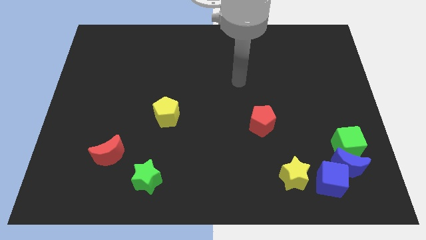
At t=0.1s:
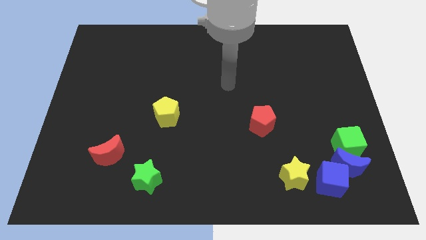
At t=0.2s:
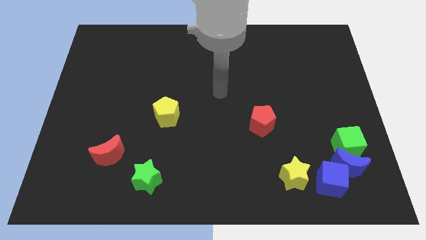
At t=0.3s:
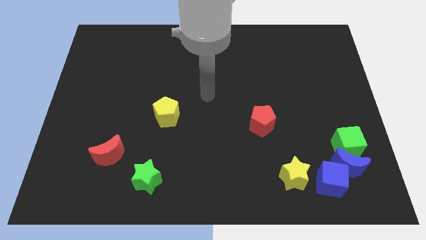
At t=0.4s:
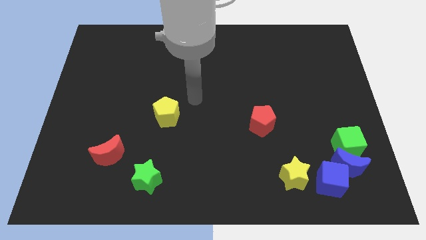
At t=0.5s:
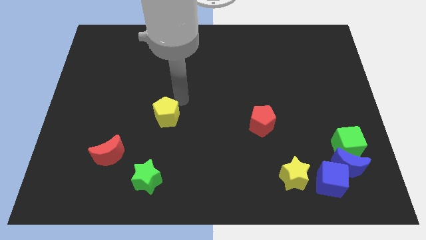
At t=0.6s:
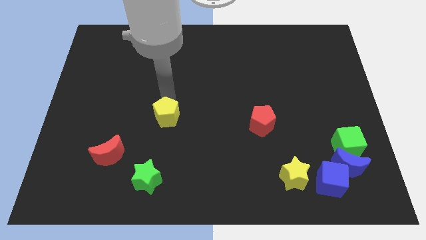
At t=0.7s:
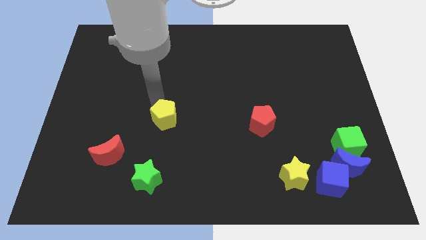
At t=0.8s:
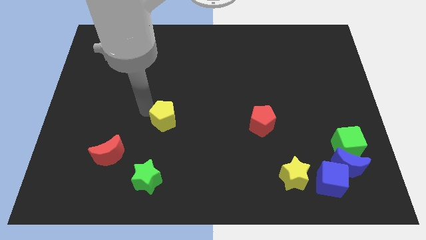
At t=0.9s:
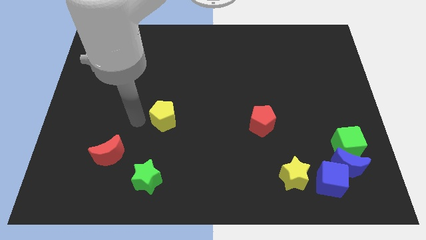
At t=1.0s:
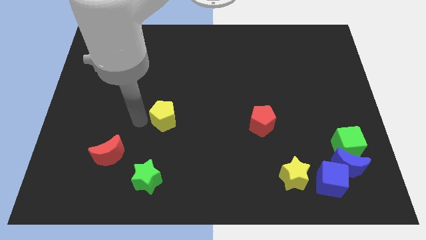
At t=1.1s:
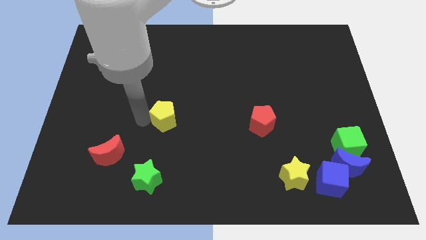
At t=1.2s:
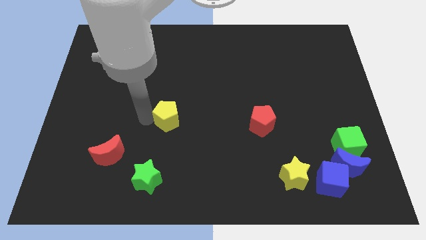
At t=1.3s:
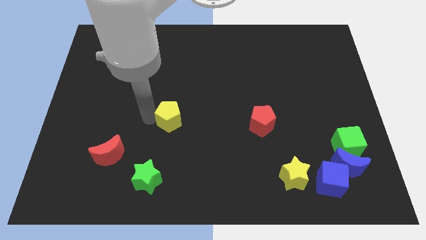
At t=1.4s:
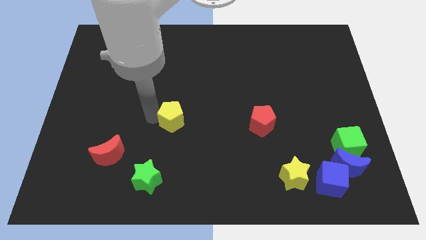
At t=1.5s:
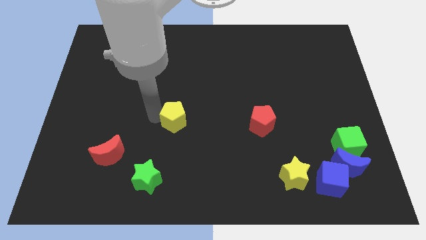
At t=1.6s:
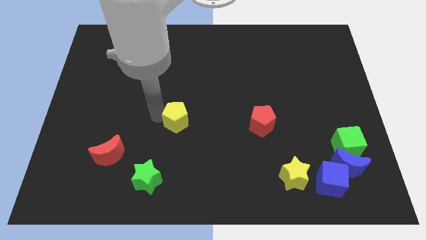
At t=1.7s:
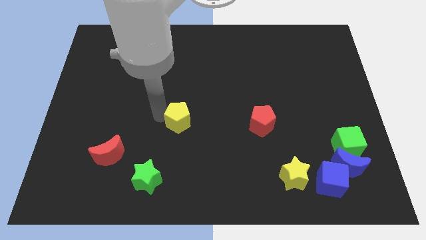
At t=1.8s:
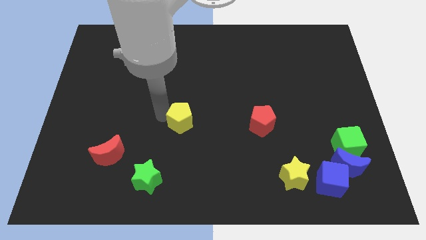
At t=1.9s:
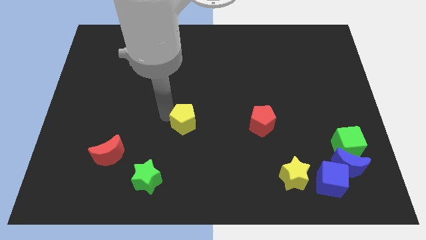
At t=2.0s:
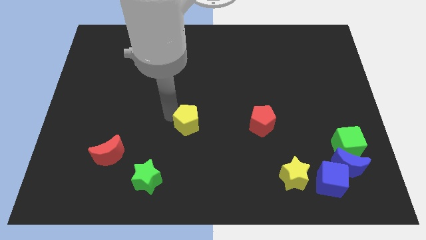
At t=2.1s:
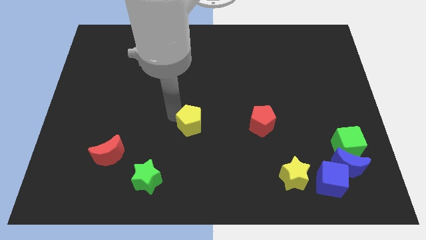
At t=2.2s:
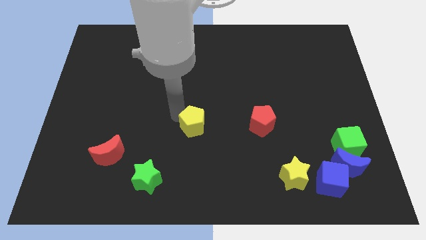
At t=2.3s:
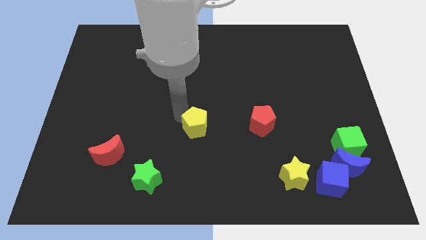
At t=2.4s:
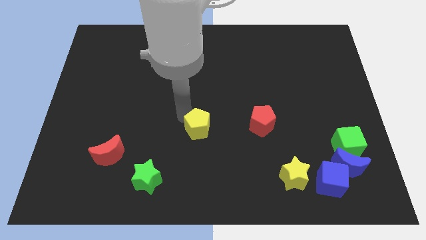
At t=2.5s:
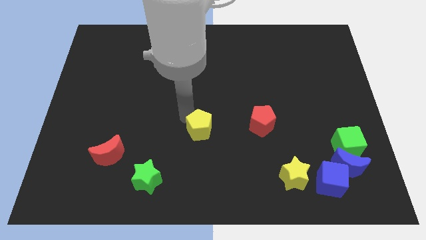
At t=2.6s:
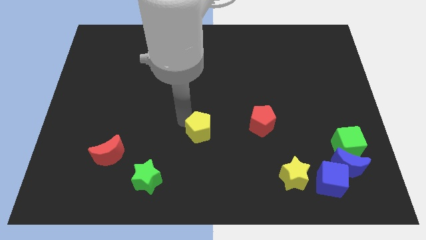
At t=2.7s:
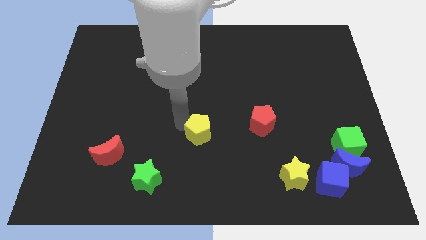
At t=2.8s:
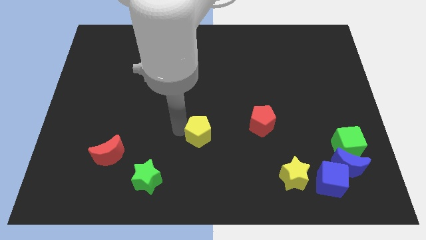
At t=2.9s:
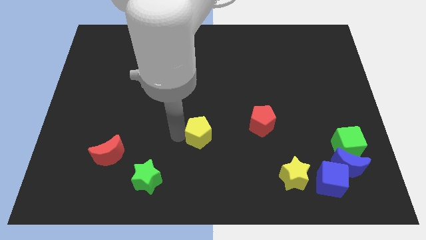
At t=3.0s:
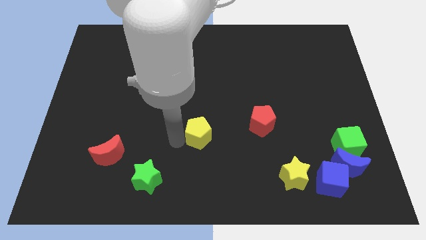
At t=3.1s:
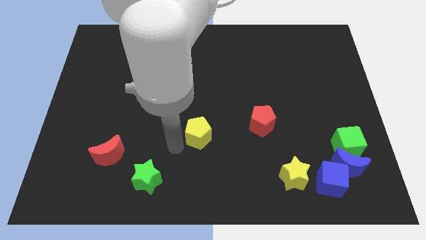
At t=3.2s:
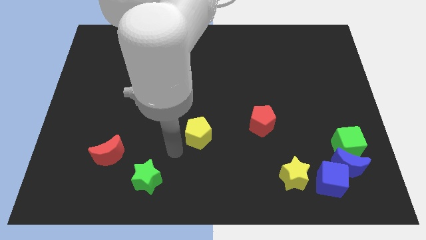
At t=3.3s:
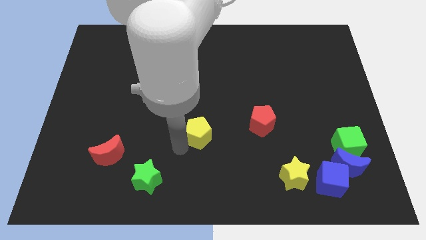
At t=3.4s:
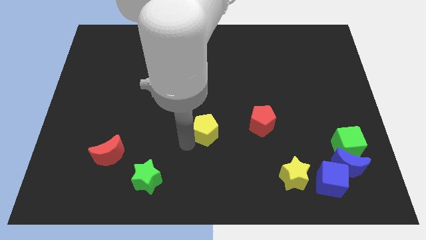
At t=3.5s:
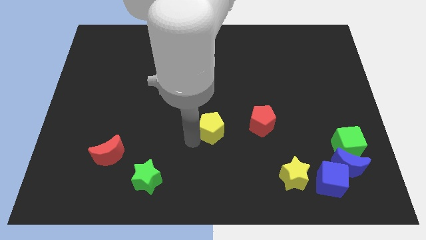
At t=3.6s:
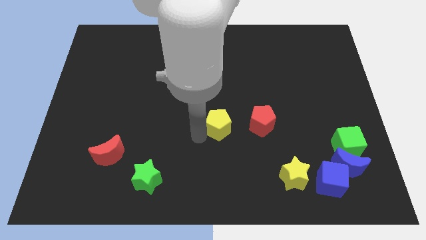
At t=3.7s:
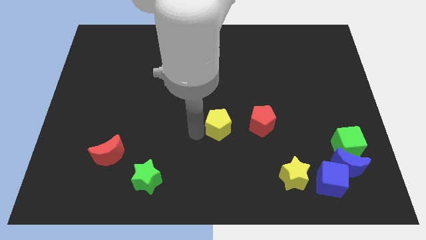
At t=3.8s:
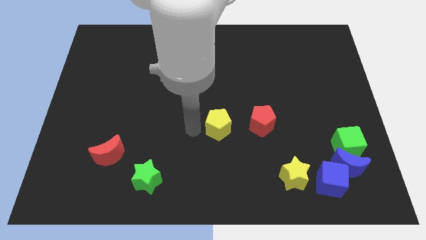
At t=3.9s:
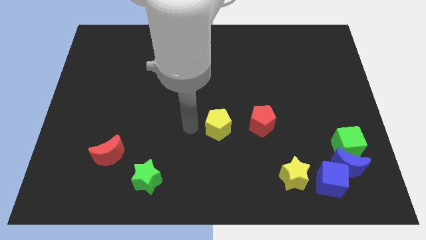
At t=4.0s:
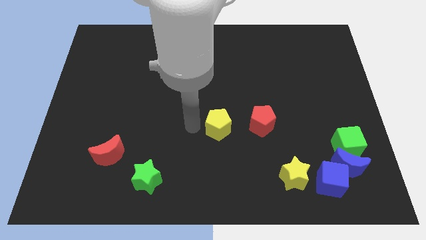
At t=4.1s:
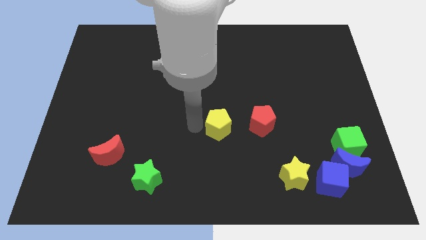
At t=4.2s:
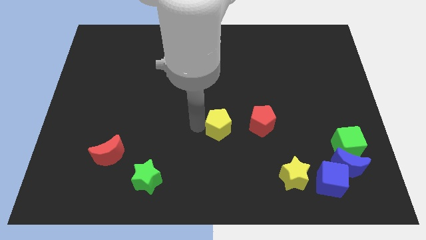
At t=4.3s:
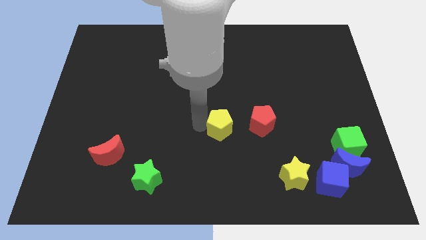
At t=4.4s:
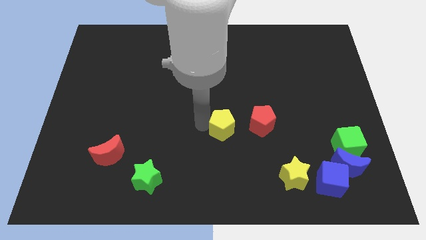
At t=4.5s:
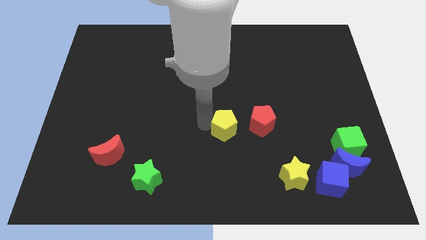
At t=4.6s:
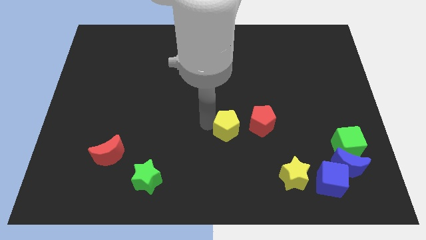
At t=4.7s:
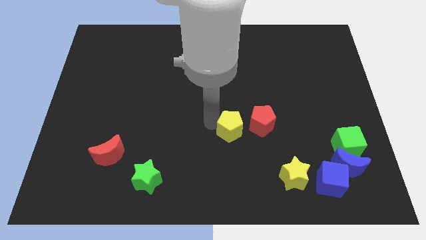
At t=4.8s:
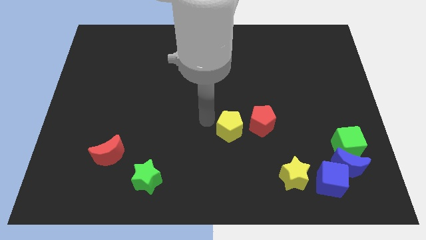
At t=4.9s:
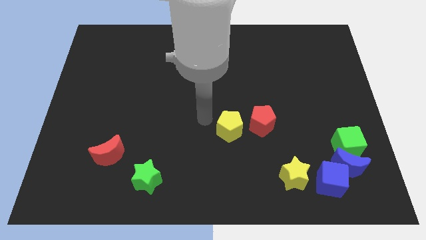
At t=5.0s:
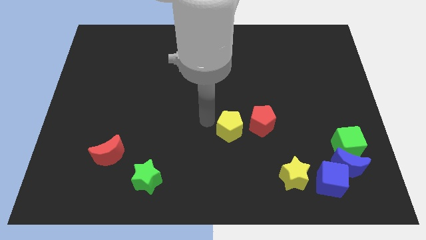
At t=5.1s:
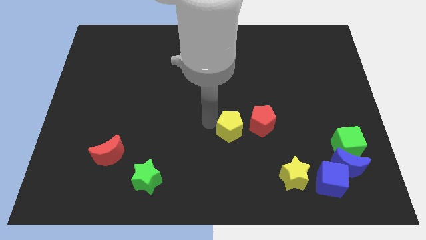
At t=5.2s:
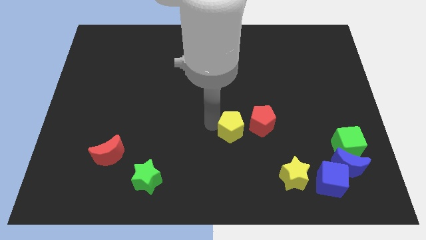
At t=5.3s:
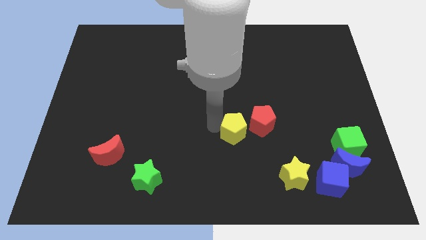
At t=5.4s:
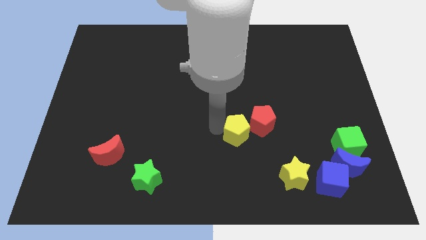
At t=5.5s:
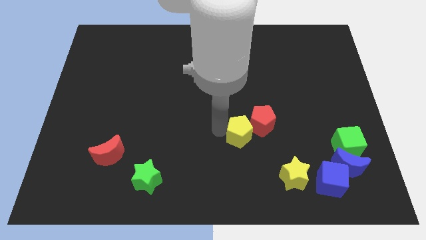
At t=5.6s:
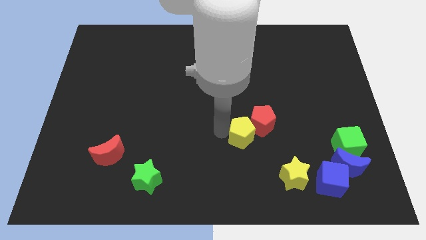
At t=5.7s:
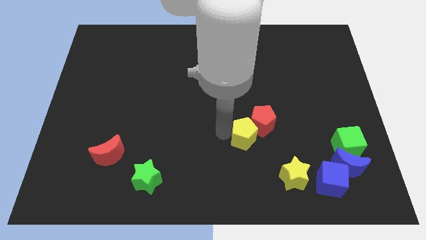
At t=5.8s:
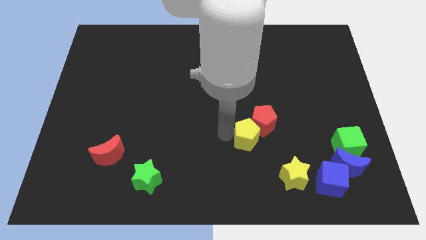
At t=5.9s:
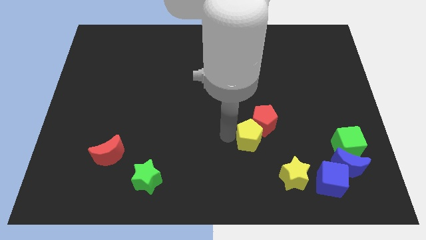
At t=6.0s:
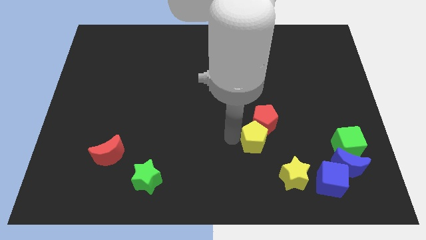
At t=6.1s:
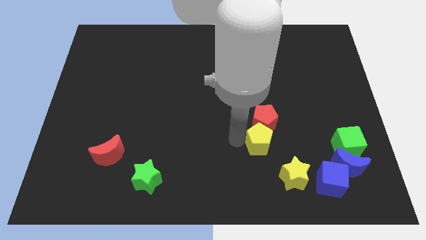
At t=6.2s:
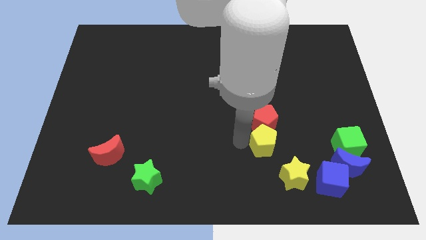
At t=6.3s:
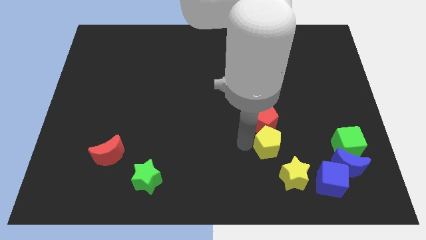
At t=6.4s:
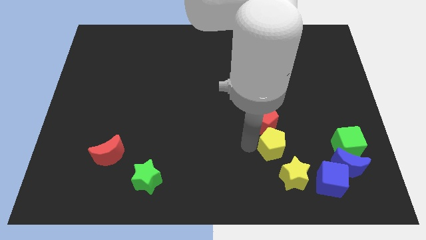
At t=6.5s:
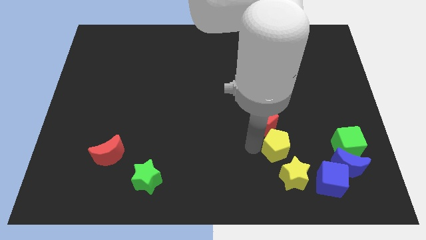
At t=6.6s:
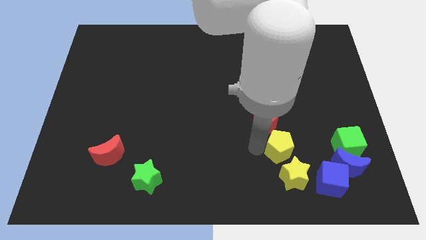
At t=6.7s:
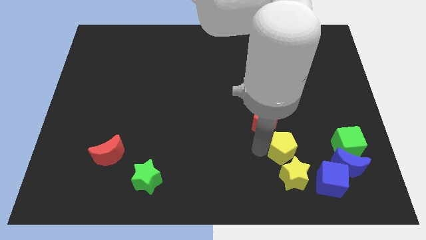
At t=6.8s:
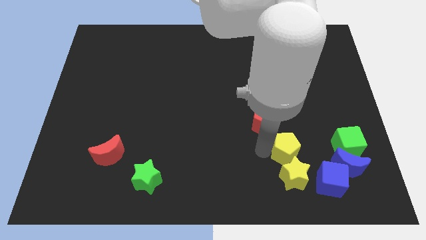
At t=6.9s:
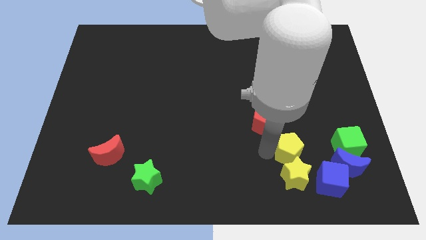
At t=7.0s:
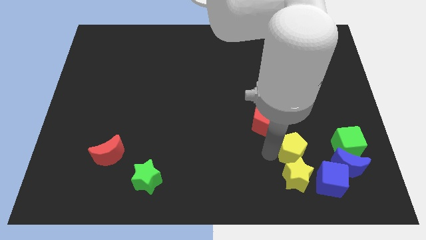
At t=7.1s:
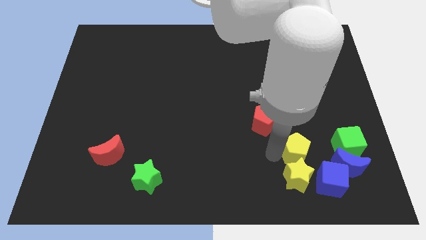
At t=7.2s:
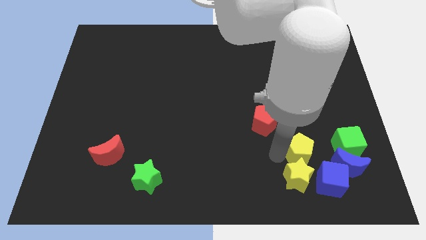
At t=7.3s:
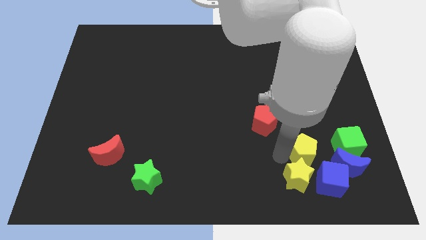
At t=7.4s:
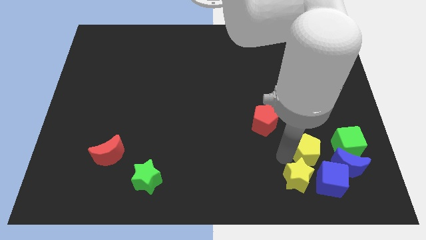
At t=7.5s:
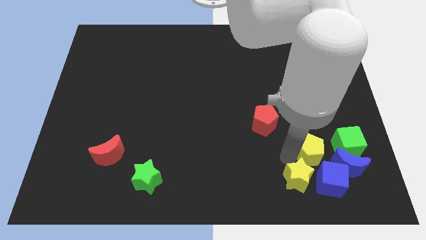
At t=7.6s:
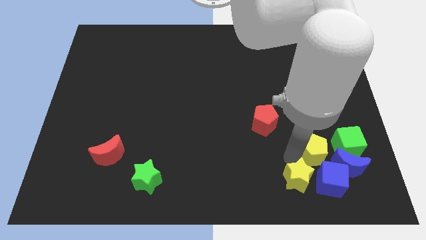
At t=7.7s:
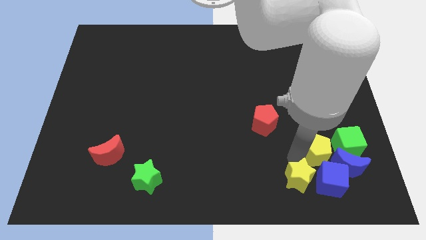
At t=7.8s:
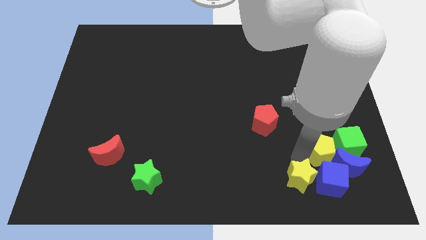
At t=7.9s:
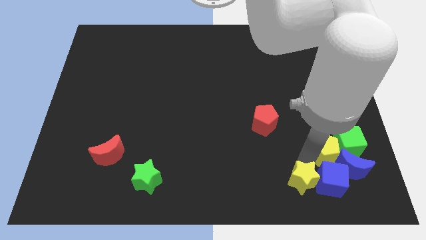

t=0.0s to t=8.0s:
put the yellow pentagon close to the green cube

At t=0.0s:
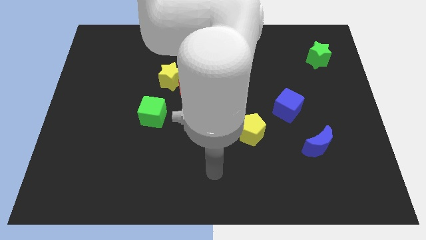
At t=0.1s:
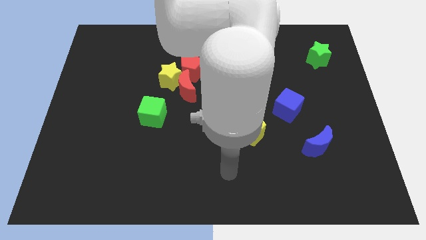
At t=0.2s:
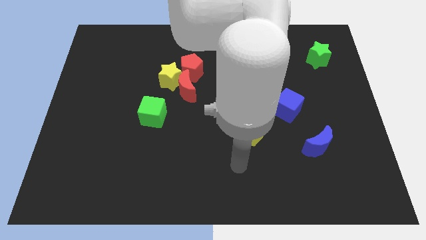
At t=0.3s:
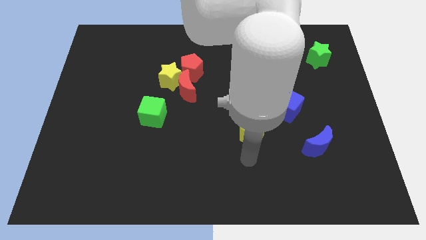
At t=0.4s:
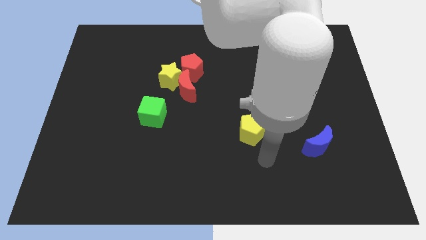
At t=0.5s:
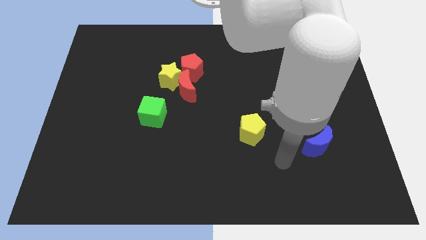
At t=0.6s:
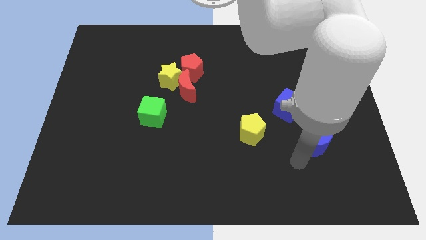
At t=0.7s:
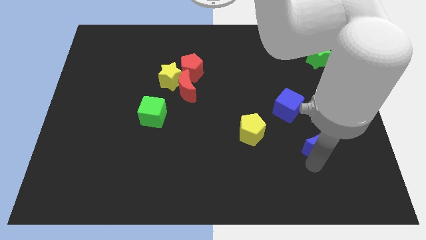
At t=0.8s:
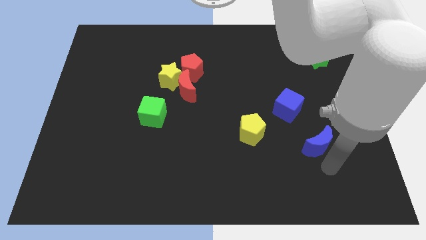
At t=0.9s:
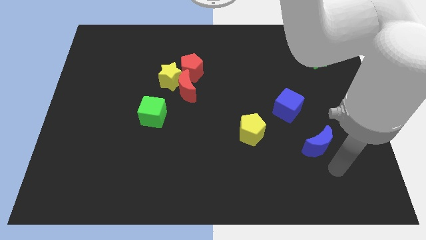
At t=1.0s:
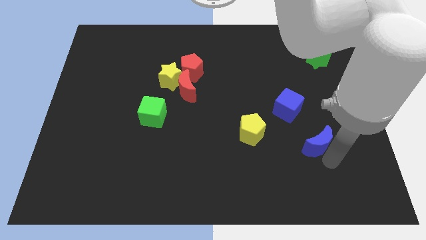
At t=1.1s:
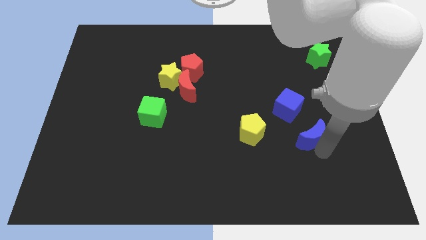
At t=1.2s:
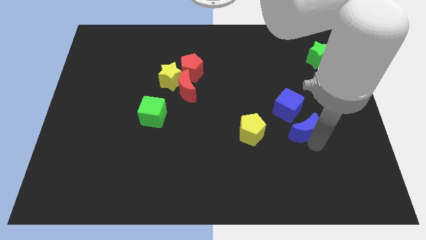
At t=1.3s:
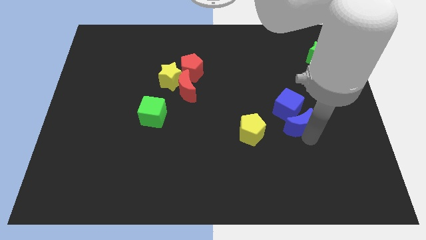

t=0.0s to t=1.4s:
slide the blue moon to the blue cube
